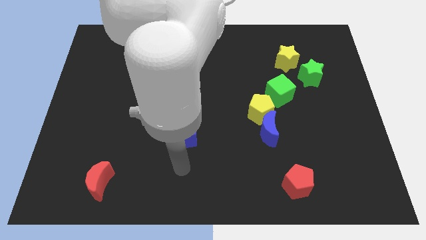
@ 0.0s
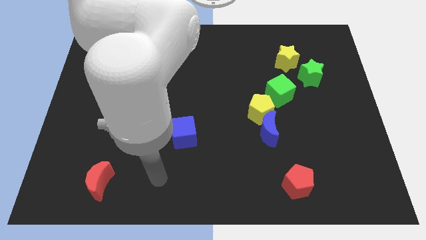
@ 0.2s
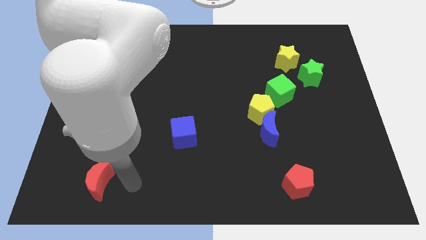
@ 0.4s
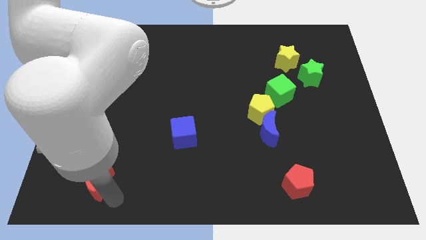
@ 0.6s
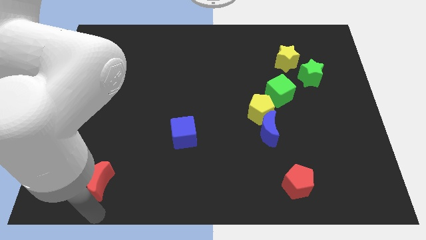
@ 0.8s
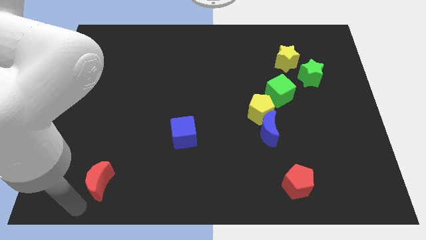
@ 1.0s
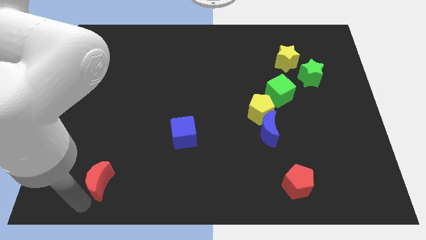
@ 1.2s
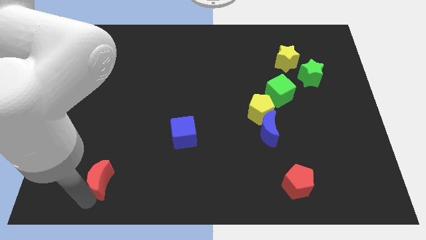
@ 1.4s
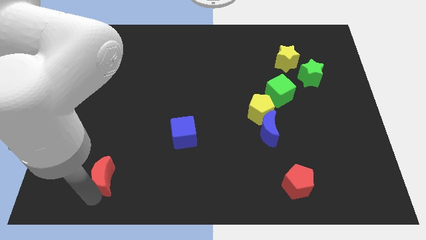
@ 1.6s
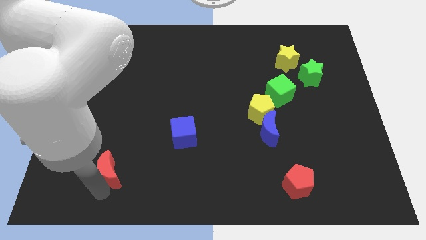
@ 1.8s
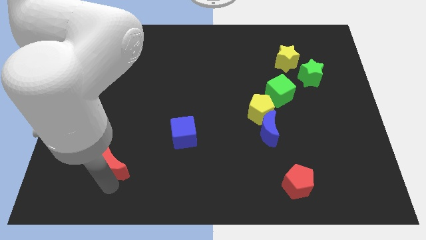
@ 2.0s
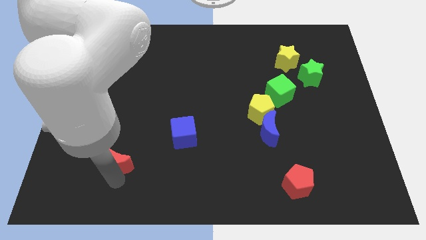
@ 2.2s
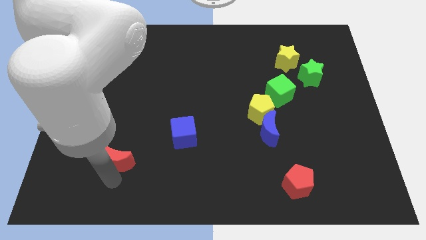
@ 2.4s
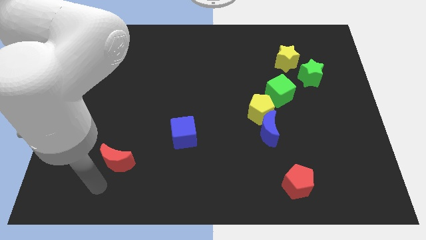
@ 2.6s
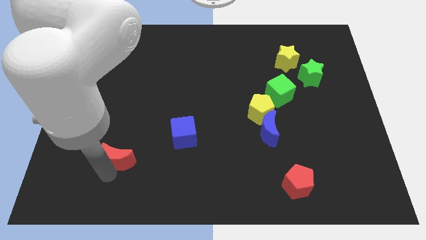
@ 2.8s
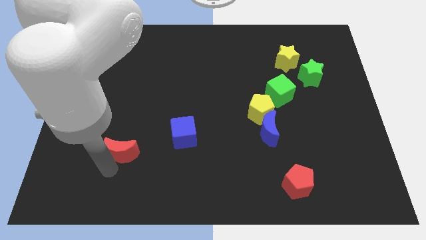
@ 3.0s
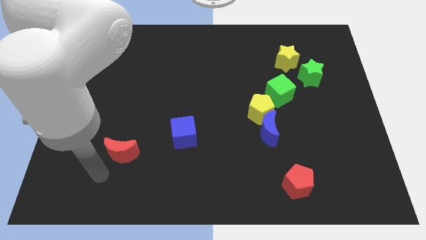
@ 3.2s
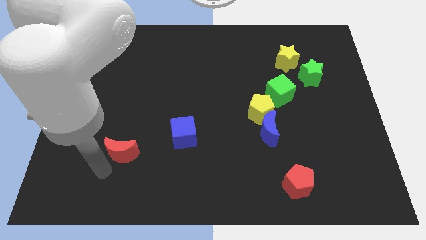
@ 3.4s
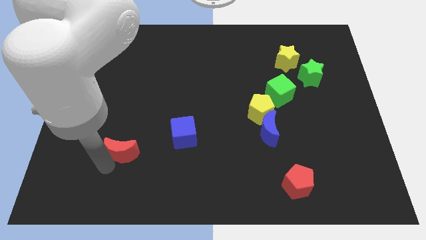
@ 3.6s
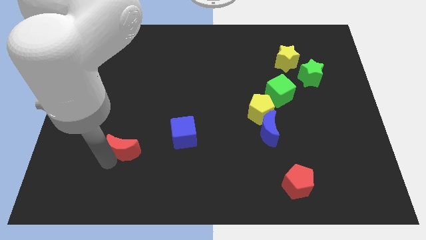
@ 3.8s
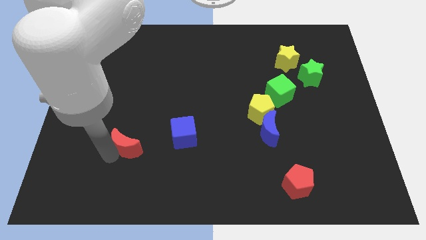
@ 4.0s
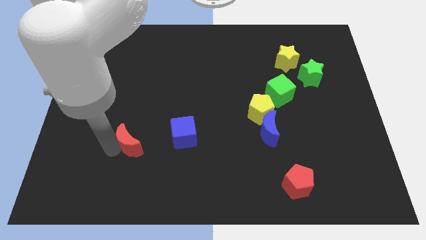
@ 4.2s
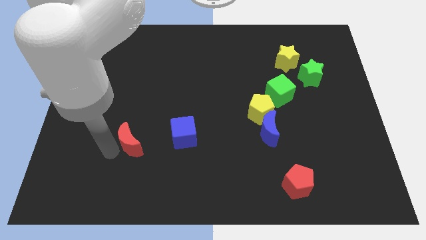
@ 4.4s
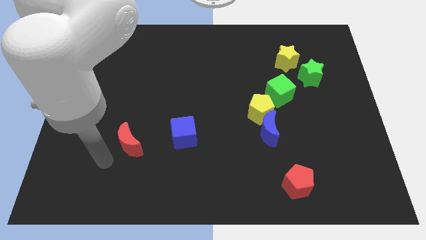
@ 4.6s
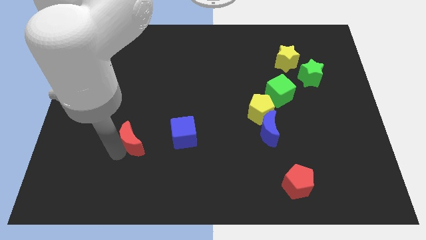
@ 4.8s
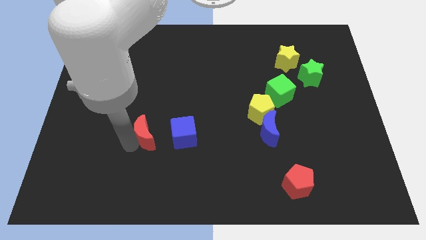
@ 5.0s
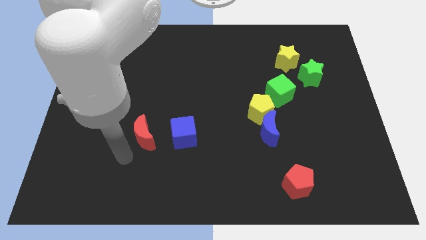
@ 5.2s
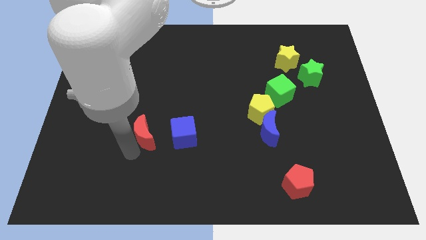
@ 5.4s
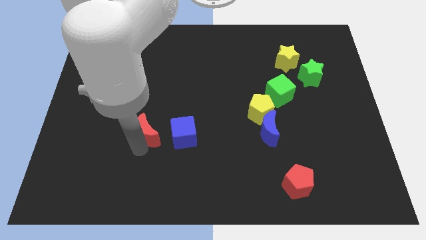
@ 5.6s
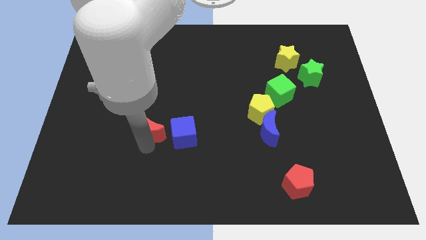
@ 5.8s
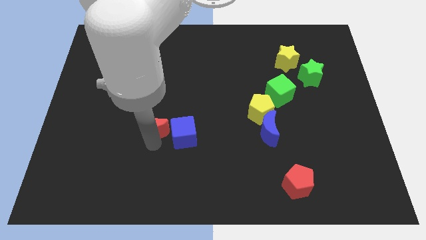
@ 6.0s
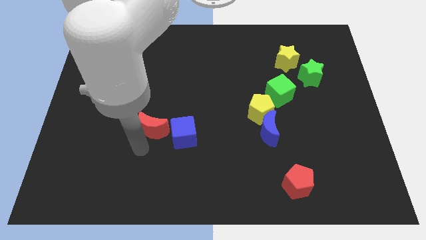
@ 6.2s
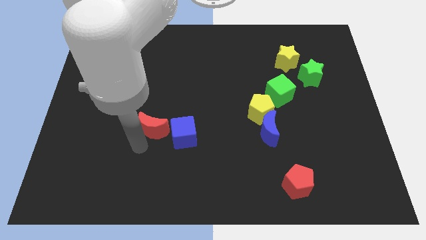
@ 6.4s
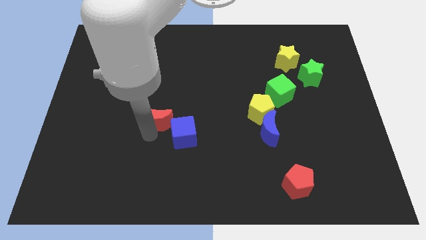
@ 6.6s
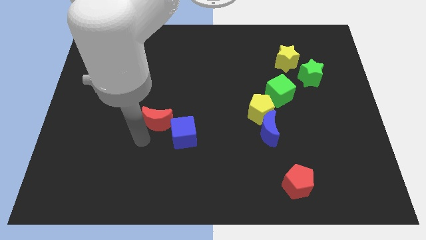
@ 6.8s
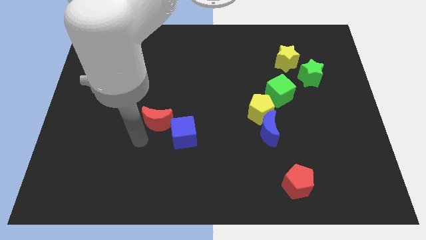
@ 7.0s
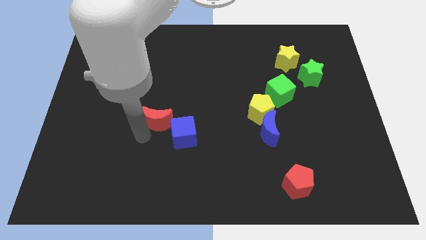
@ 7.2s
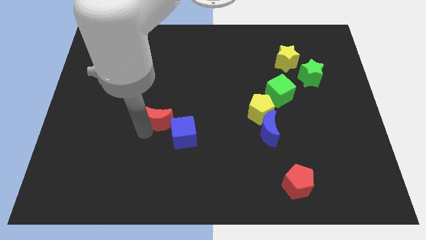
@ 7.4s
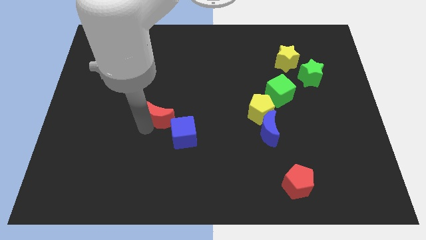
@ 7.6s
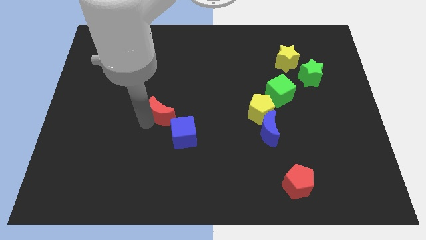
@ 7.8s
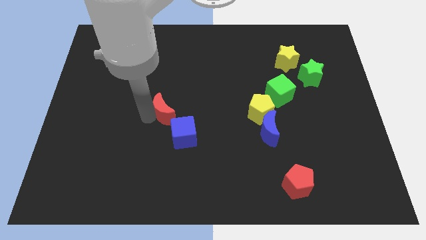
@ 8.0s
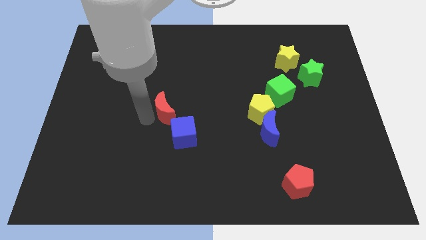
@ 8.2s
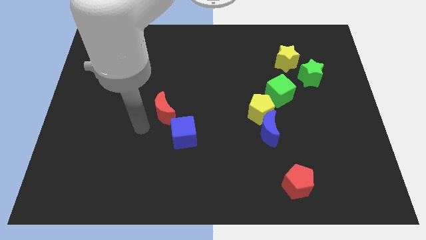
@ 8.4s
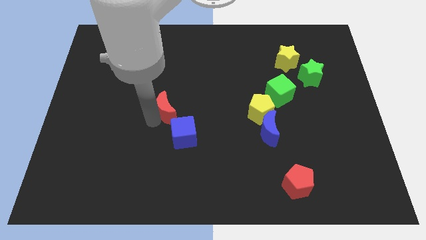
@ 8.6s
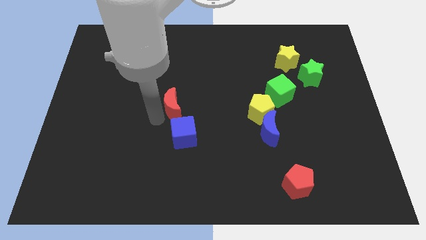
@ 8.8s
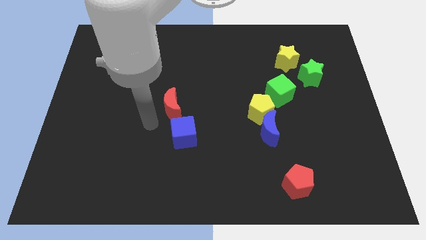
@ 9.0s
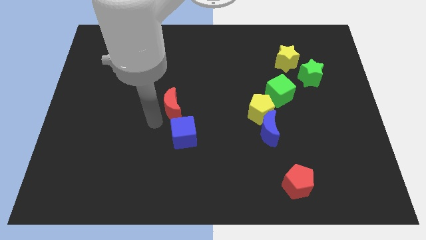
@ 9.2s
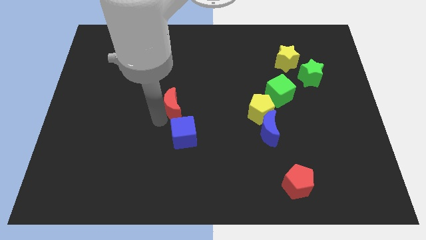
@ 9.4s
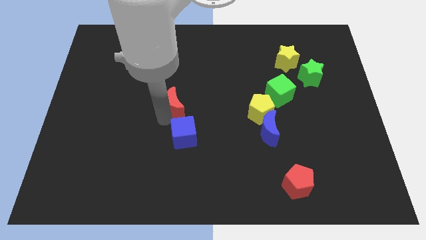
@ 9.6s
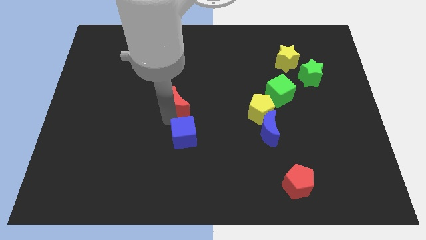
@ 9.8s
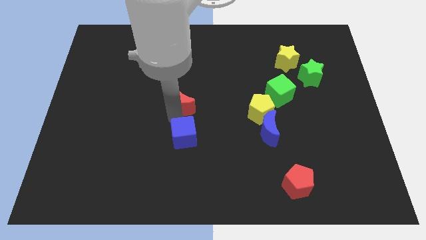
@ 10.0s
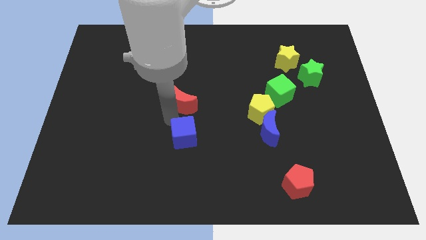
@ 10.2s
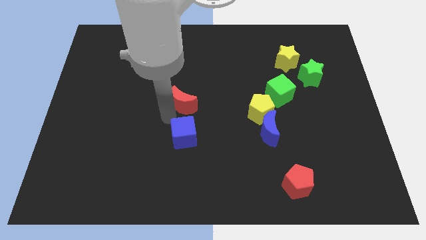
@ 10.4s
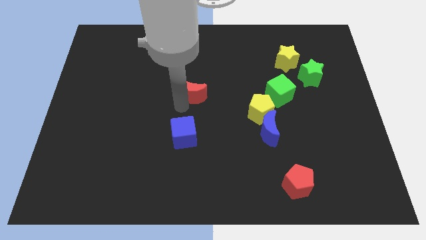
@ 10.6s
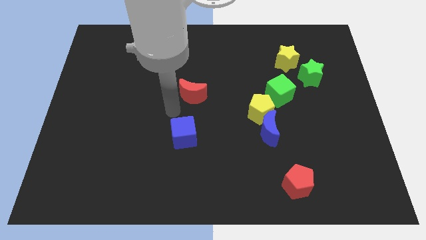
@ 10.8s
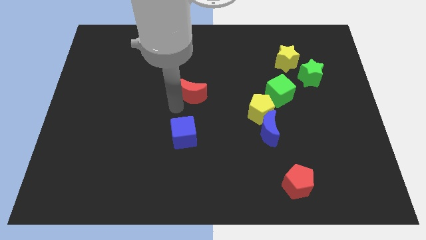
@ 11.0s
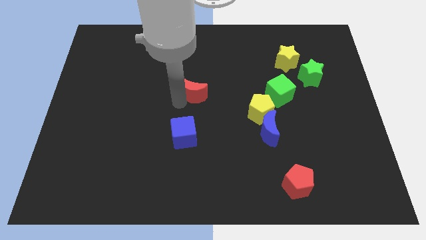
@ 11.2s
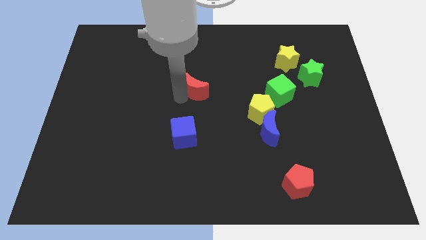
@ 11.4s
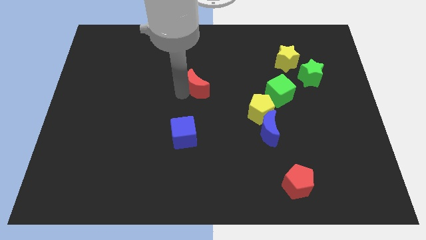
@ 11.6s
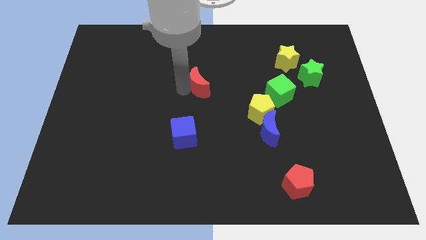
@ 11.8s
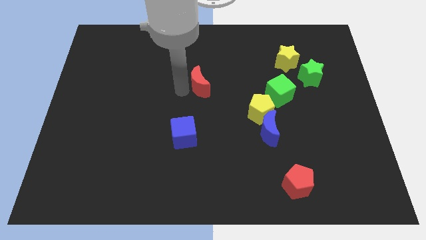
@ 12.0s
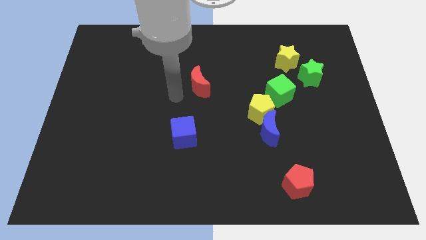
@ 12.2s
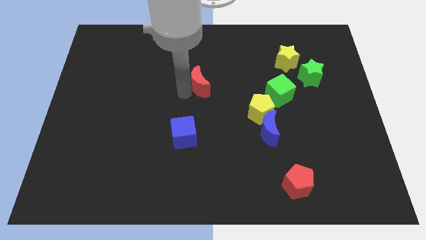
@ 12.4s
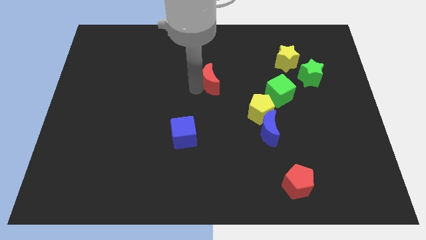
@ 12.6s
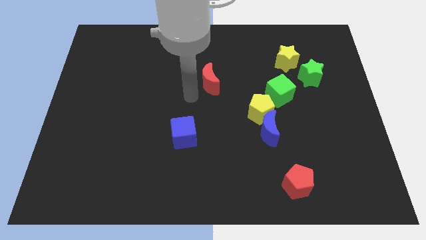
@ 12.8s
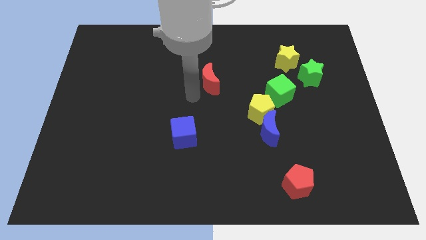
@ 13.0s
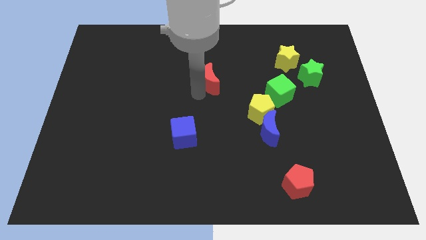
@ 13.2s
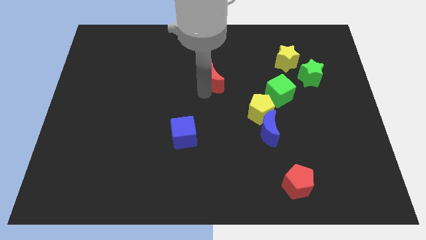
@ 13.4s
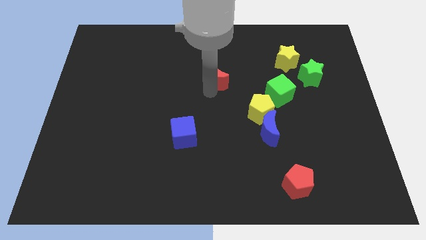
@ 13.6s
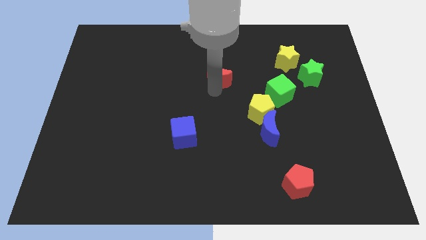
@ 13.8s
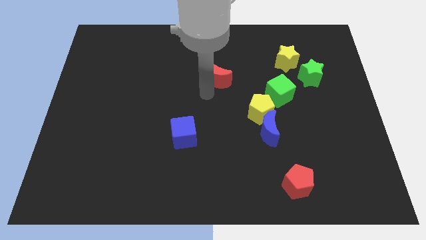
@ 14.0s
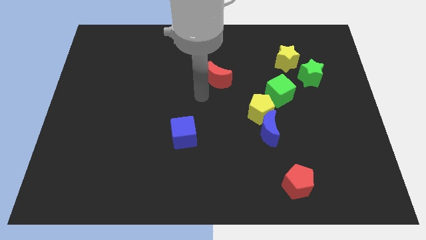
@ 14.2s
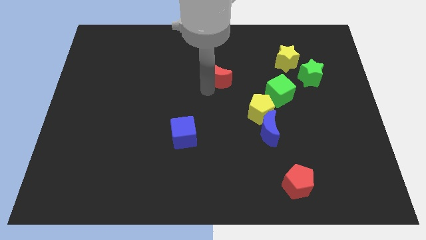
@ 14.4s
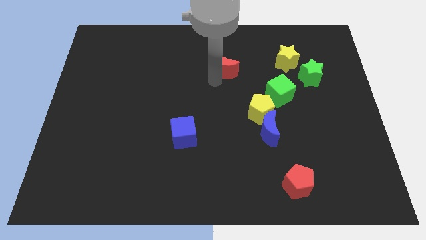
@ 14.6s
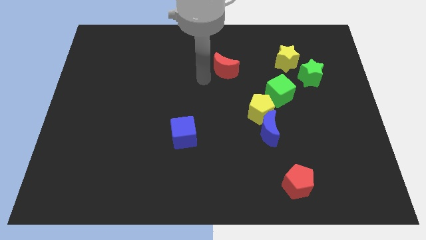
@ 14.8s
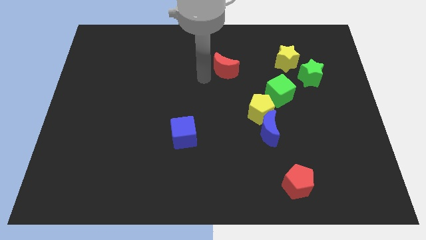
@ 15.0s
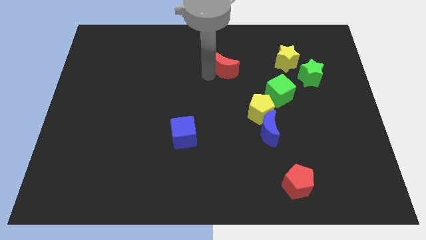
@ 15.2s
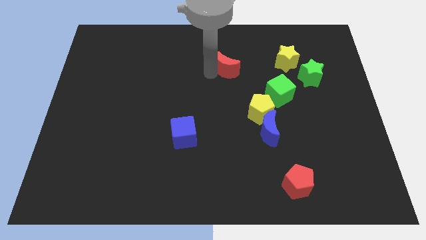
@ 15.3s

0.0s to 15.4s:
slide the red moon just left of the yellow star

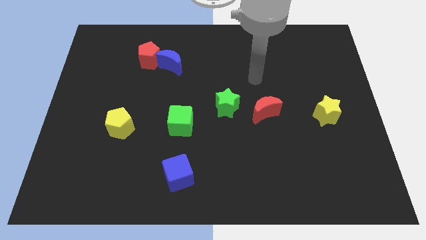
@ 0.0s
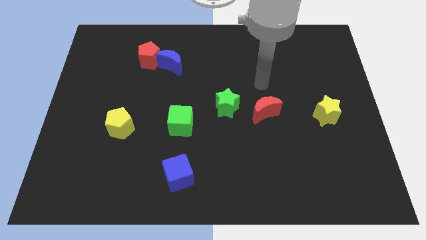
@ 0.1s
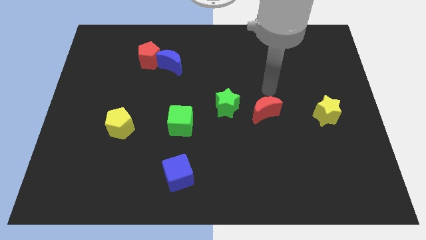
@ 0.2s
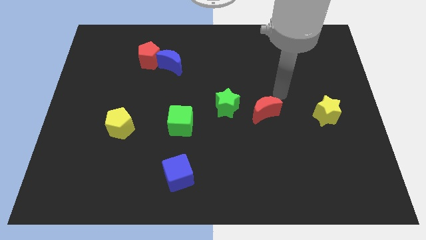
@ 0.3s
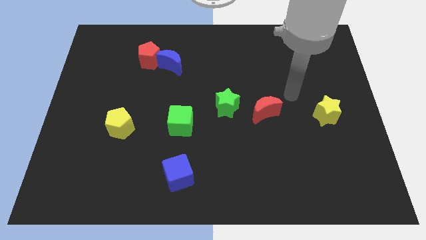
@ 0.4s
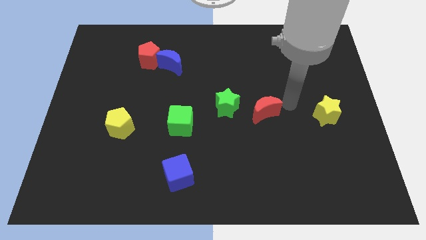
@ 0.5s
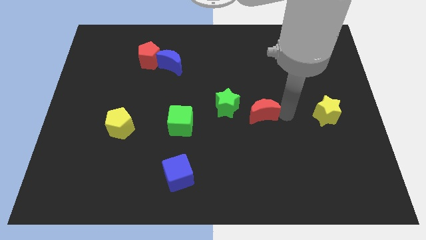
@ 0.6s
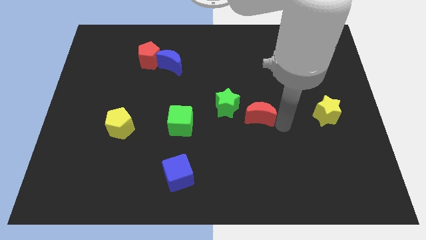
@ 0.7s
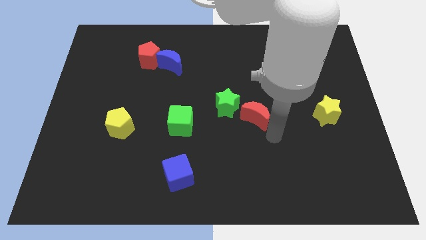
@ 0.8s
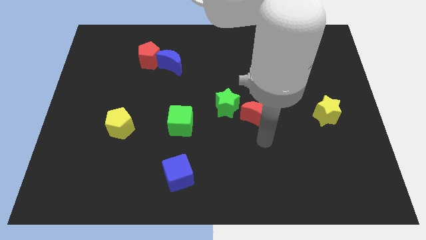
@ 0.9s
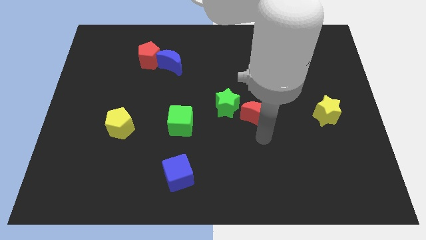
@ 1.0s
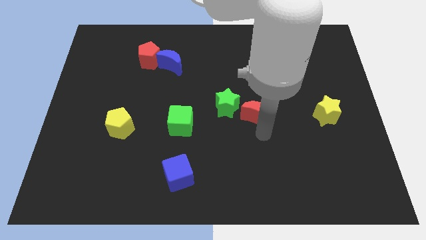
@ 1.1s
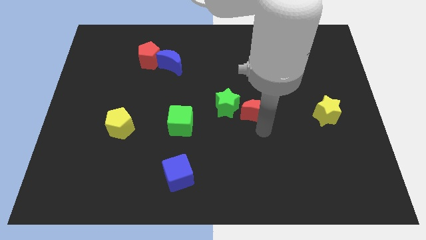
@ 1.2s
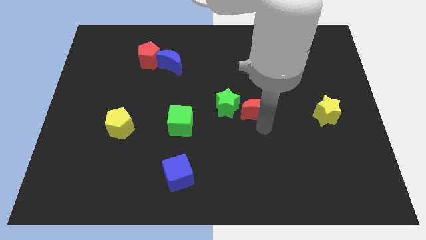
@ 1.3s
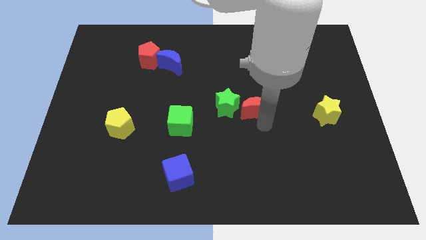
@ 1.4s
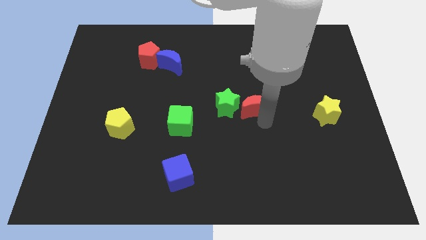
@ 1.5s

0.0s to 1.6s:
slide the red moon diagonally up and to the right of the green star
